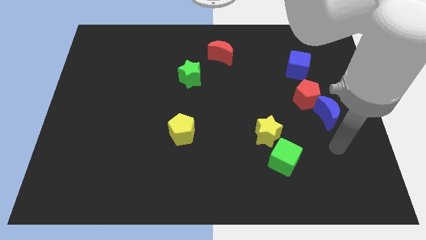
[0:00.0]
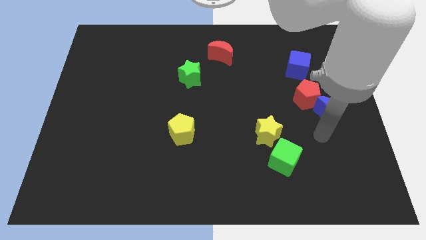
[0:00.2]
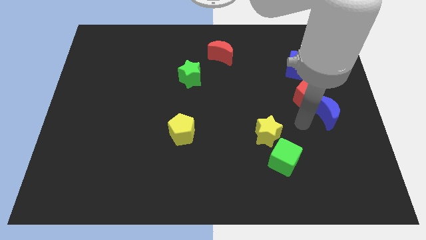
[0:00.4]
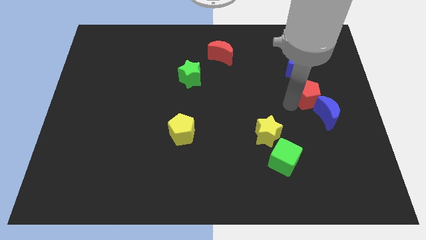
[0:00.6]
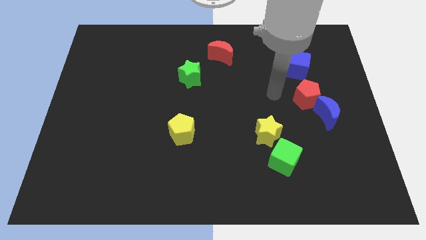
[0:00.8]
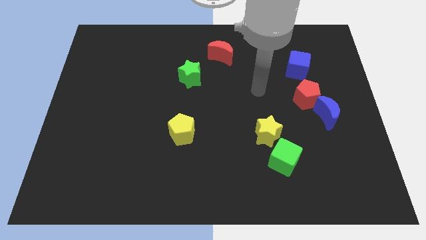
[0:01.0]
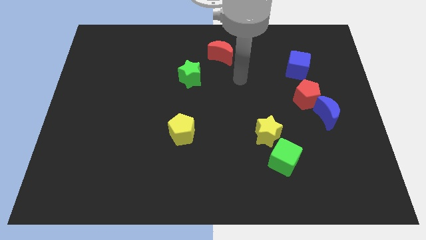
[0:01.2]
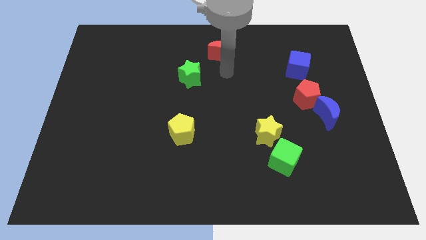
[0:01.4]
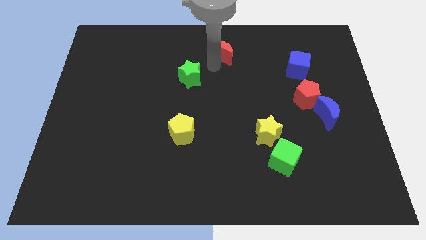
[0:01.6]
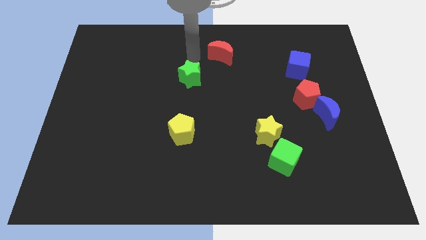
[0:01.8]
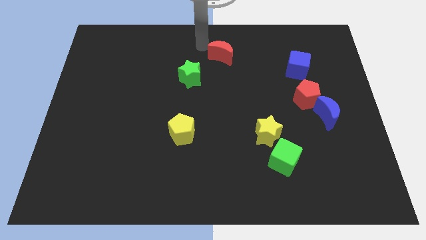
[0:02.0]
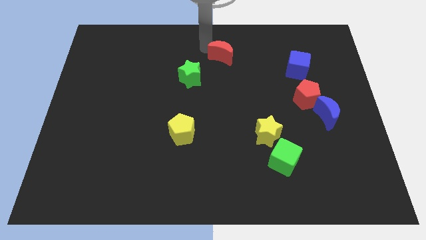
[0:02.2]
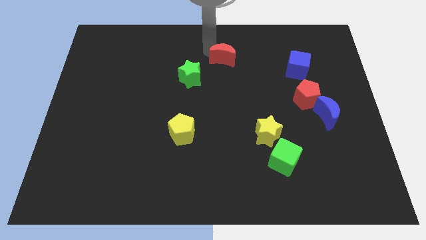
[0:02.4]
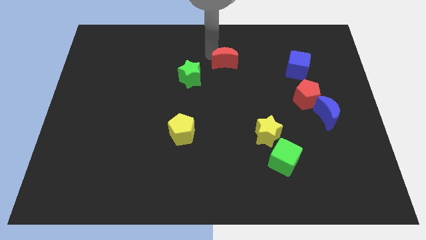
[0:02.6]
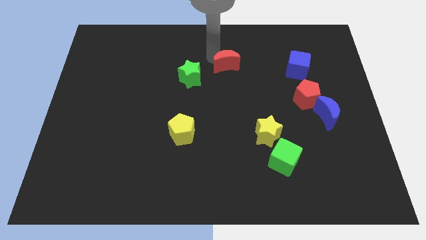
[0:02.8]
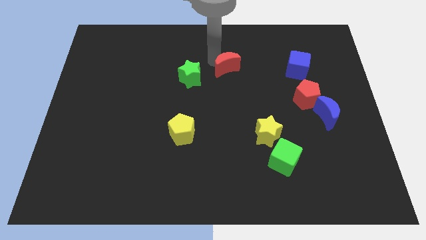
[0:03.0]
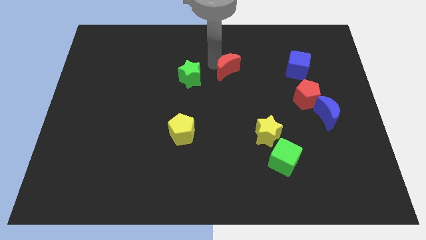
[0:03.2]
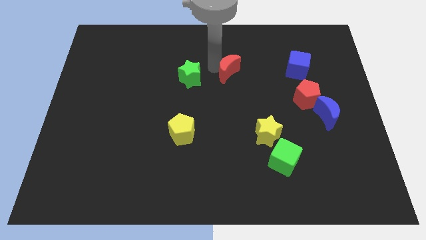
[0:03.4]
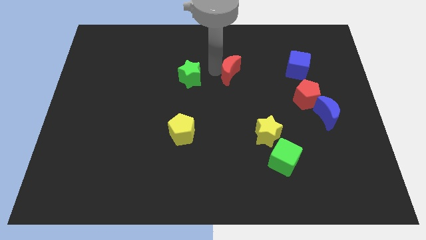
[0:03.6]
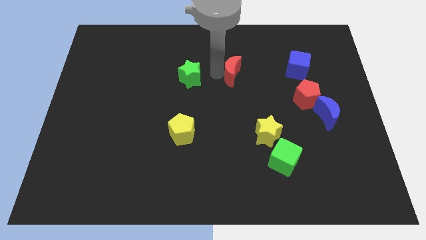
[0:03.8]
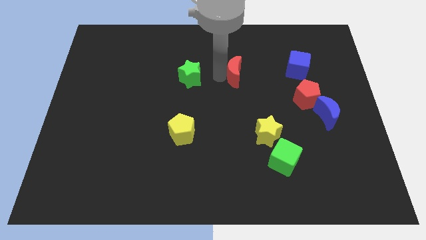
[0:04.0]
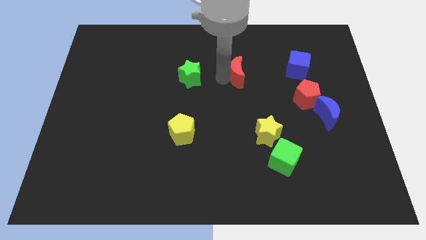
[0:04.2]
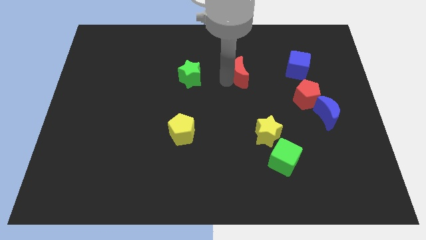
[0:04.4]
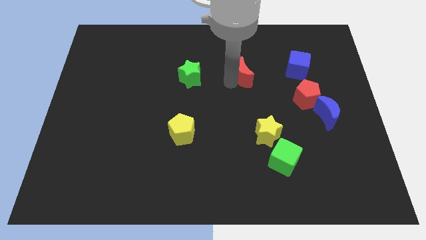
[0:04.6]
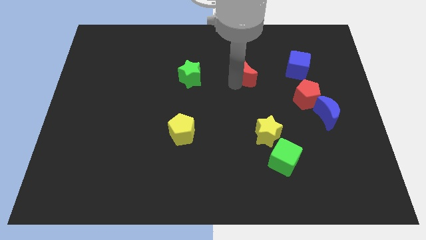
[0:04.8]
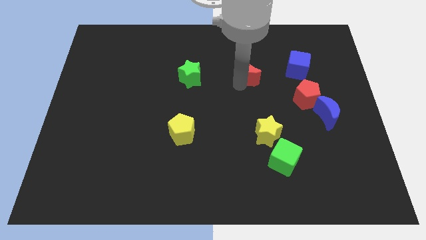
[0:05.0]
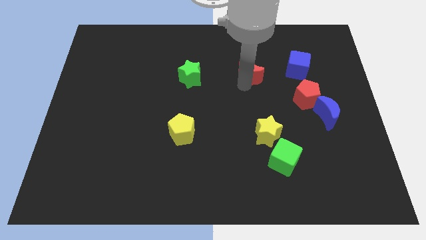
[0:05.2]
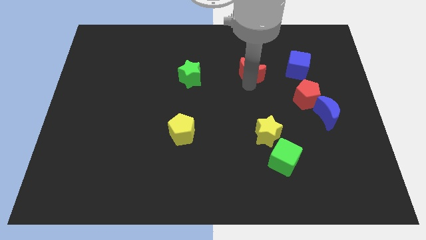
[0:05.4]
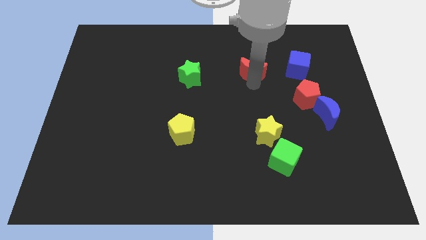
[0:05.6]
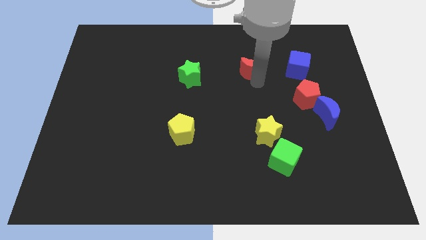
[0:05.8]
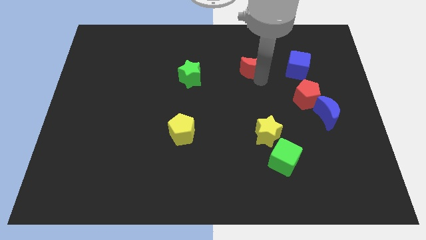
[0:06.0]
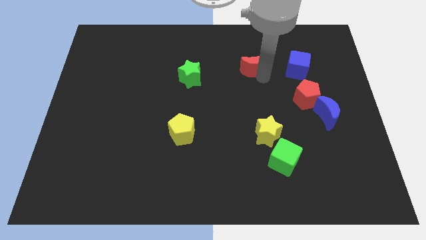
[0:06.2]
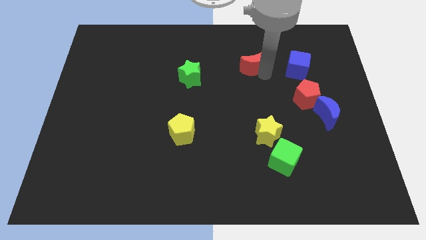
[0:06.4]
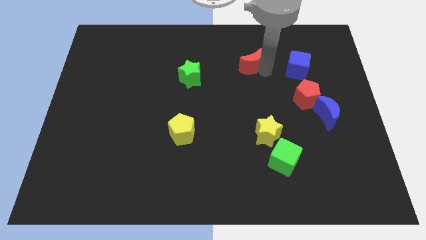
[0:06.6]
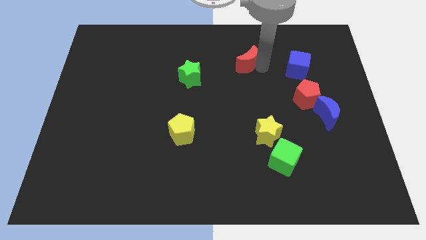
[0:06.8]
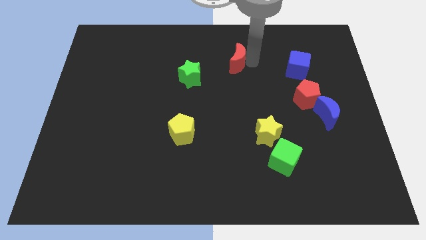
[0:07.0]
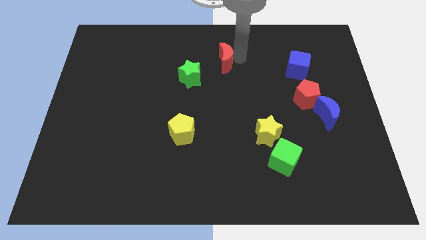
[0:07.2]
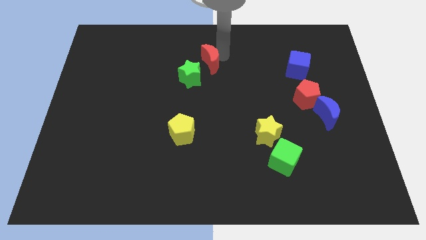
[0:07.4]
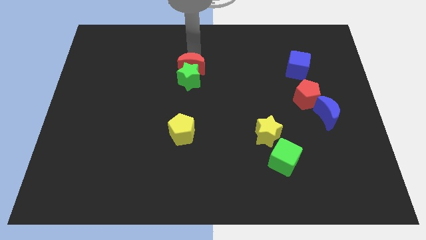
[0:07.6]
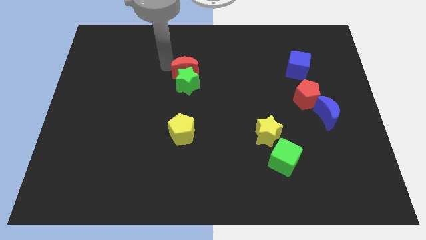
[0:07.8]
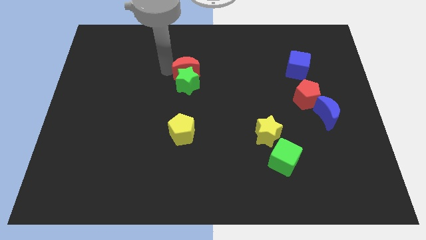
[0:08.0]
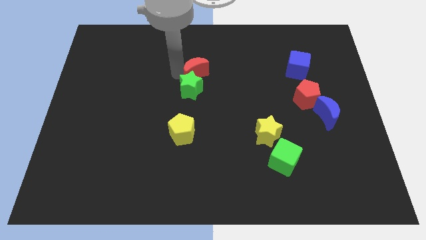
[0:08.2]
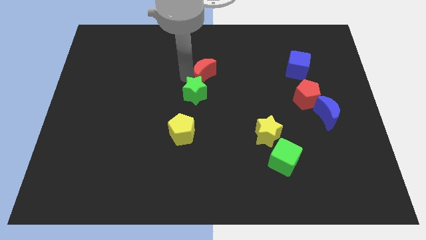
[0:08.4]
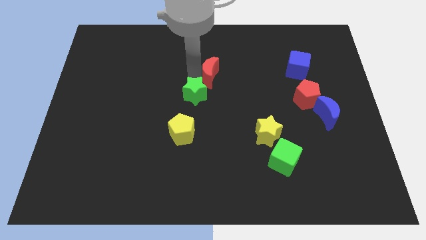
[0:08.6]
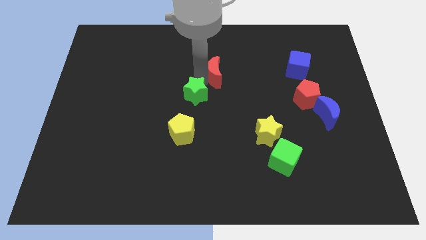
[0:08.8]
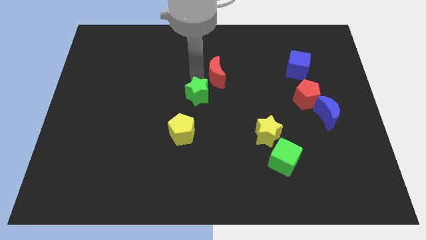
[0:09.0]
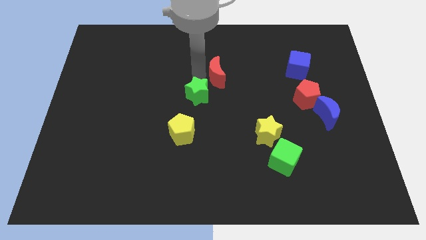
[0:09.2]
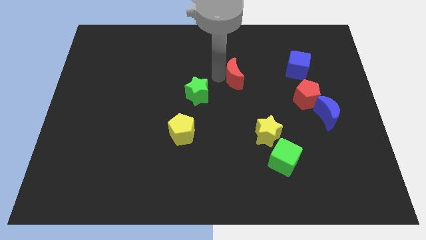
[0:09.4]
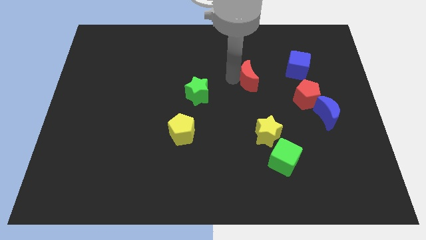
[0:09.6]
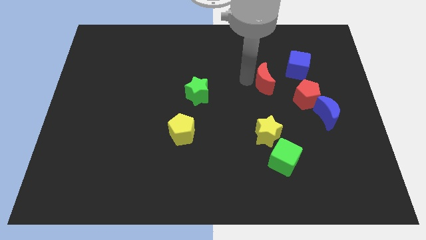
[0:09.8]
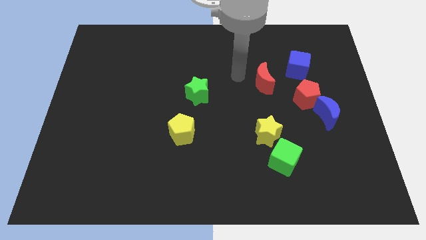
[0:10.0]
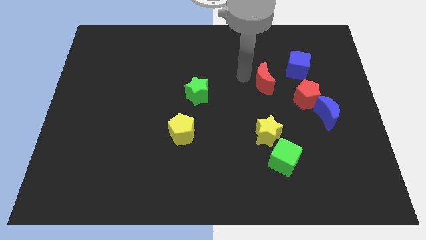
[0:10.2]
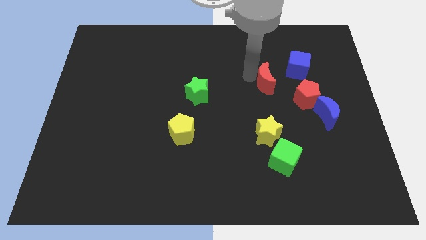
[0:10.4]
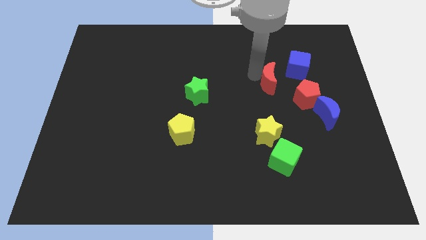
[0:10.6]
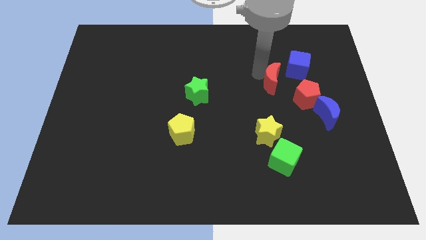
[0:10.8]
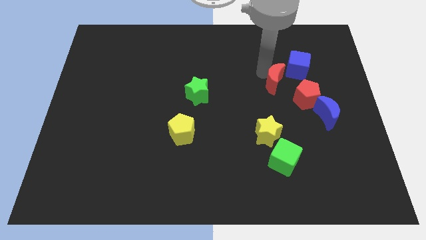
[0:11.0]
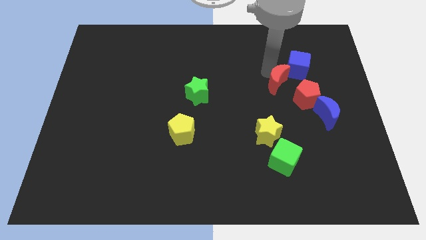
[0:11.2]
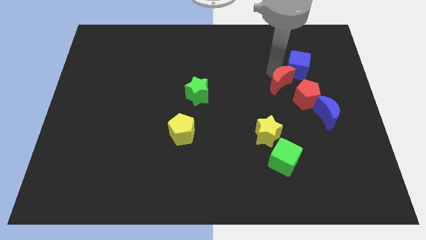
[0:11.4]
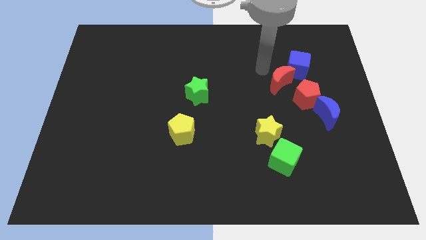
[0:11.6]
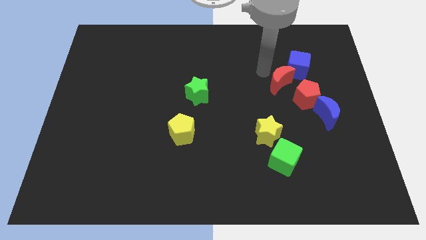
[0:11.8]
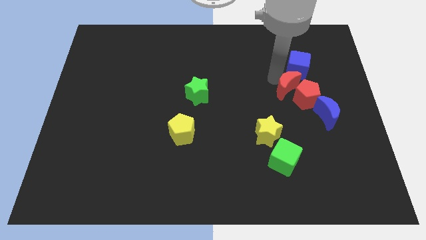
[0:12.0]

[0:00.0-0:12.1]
put the red moon next to the red pentagon

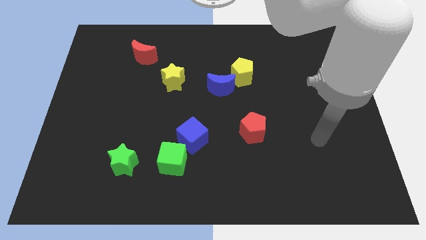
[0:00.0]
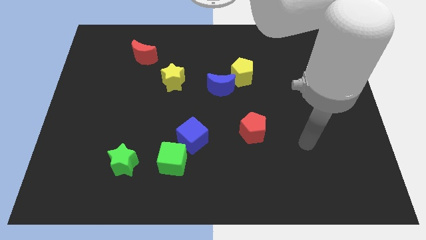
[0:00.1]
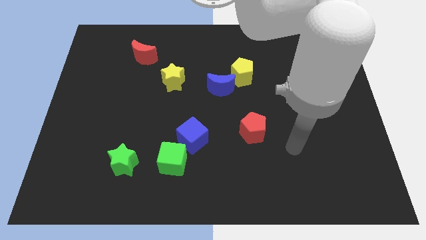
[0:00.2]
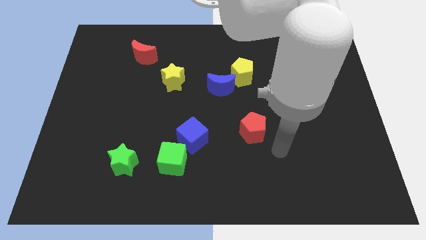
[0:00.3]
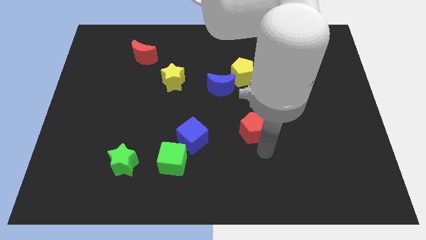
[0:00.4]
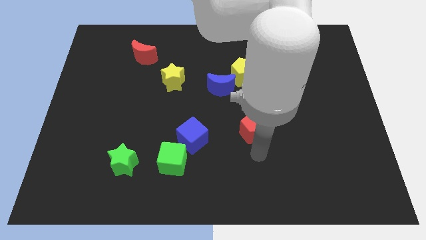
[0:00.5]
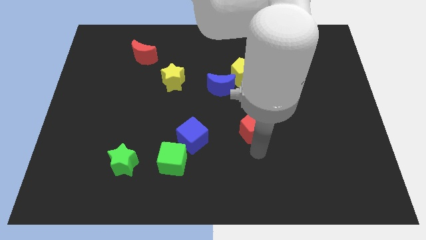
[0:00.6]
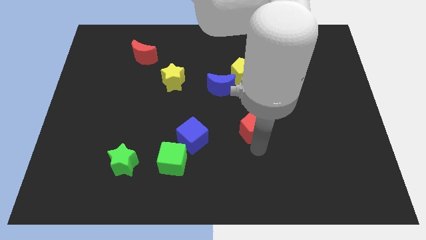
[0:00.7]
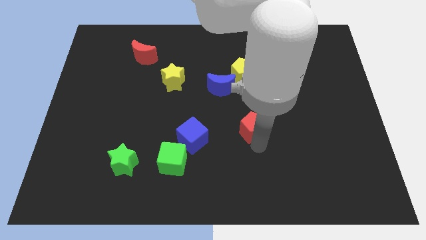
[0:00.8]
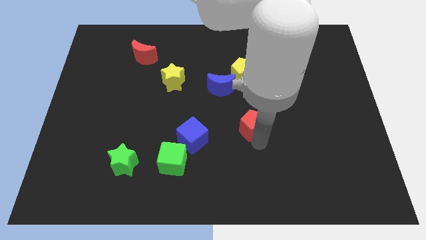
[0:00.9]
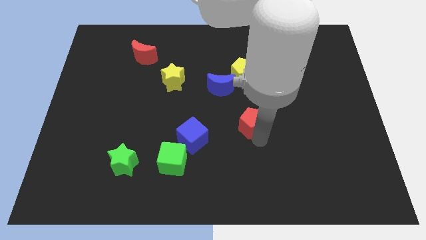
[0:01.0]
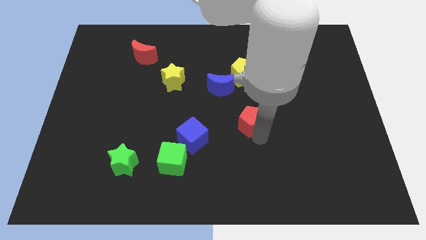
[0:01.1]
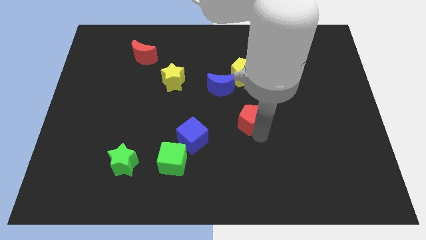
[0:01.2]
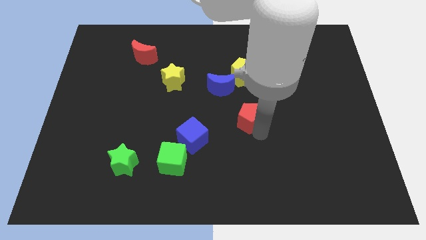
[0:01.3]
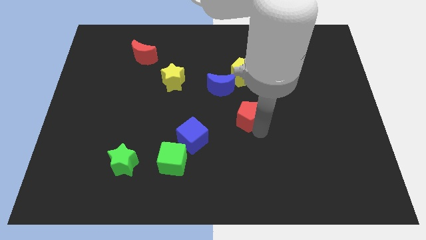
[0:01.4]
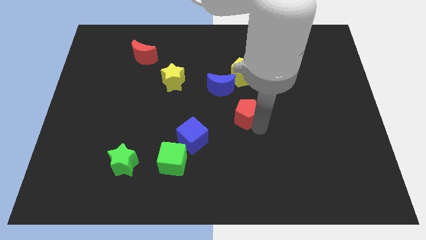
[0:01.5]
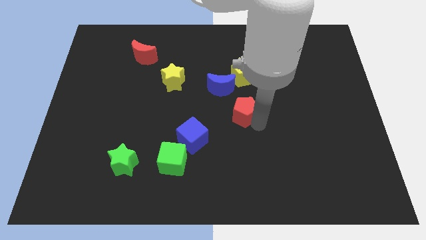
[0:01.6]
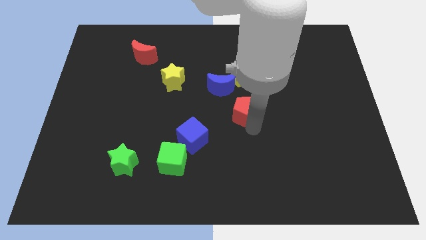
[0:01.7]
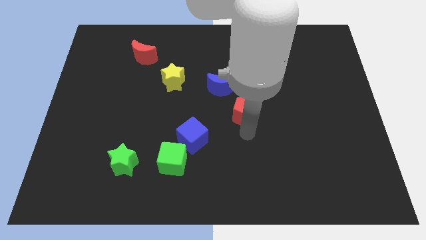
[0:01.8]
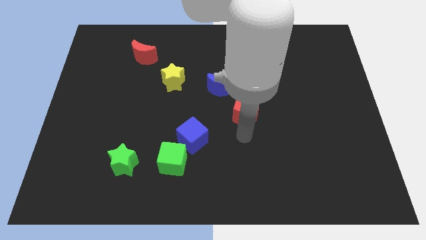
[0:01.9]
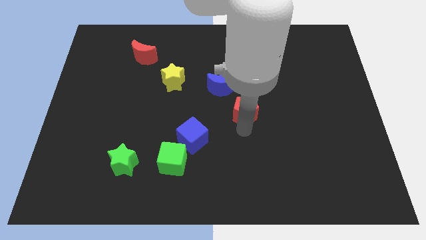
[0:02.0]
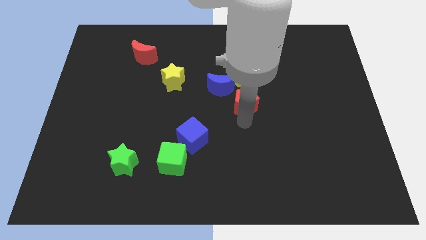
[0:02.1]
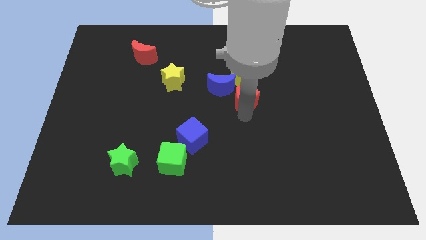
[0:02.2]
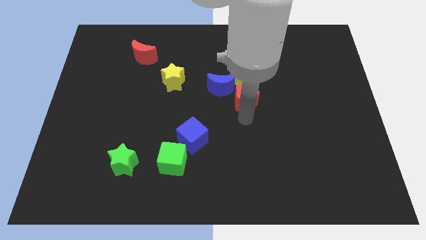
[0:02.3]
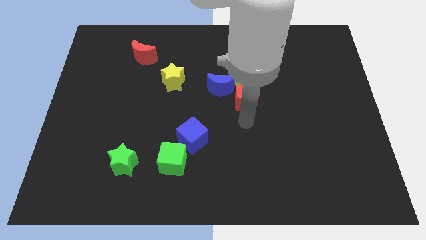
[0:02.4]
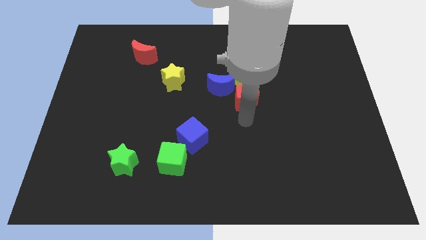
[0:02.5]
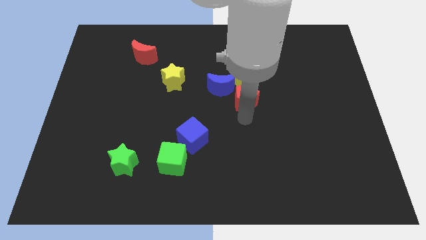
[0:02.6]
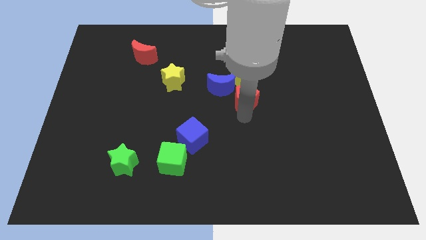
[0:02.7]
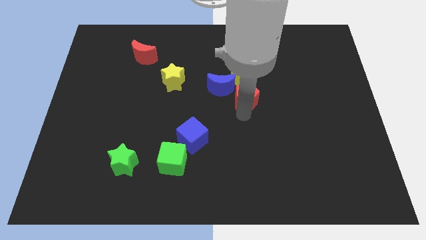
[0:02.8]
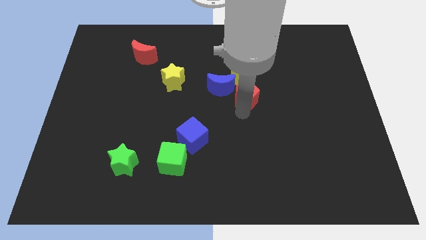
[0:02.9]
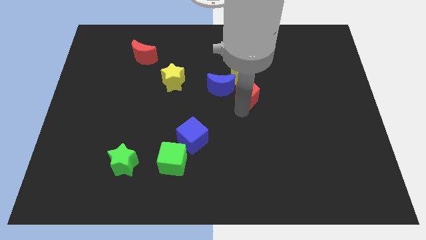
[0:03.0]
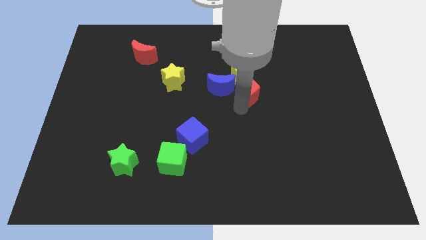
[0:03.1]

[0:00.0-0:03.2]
put the red pentagon close to the yellow pentagon
